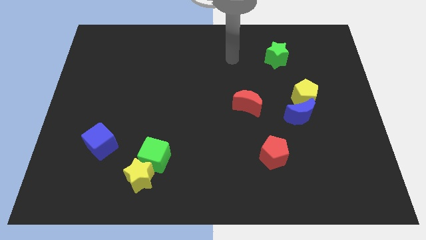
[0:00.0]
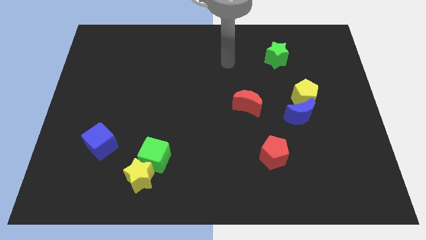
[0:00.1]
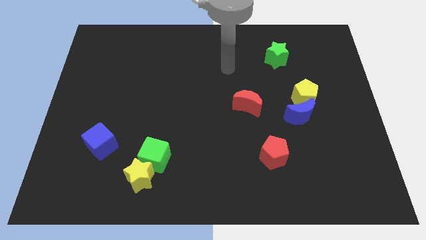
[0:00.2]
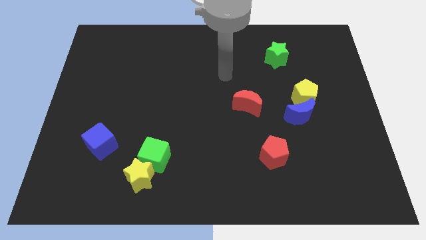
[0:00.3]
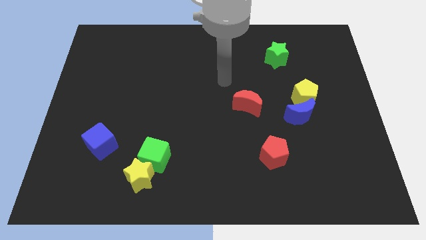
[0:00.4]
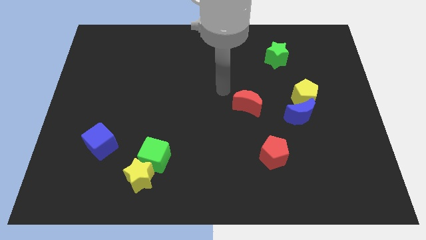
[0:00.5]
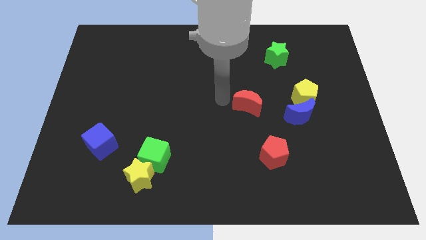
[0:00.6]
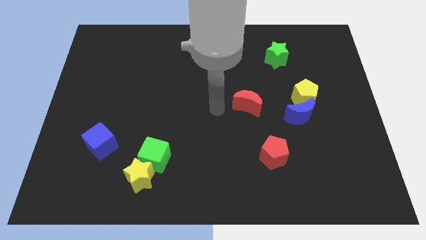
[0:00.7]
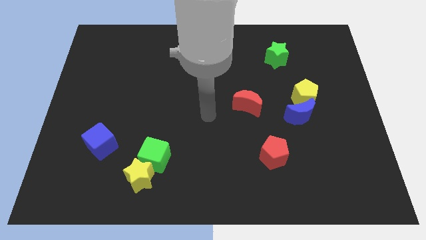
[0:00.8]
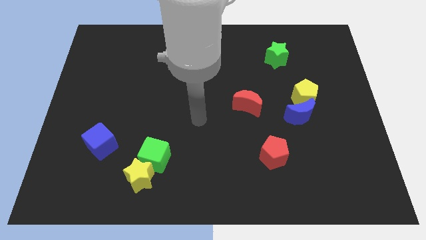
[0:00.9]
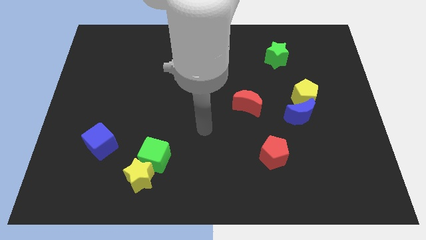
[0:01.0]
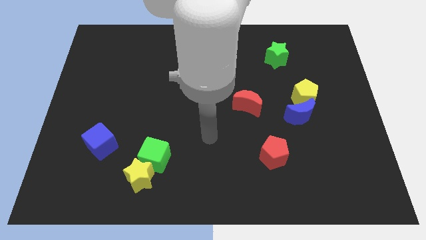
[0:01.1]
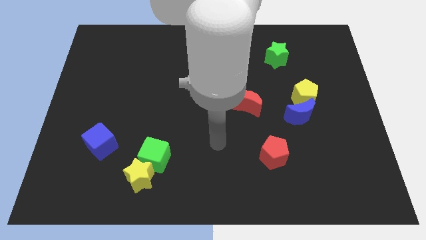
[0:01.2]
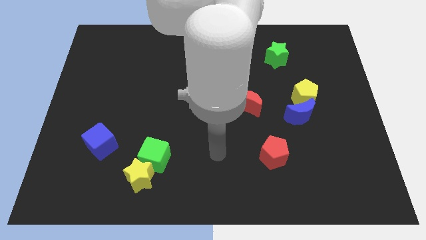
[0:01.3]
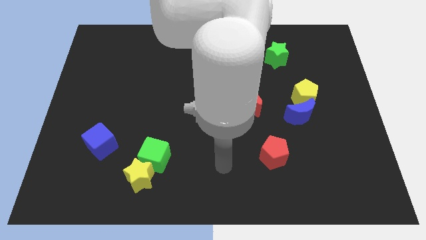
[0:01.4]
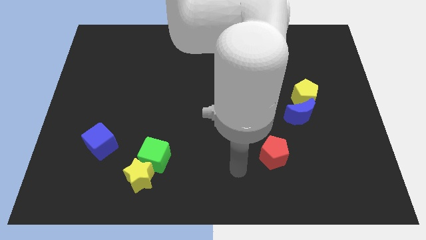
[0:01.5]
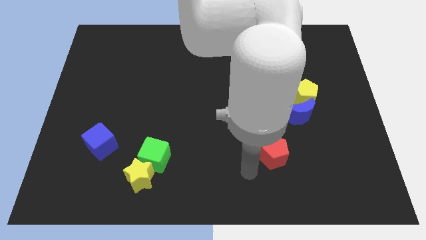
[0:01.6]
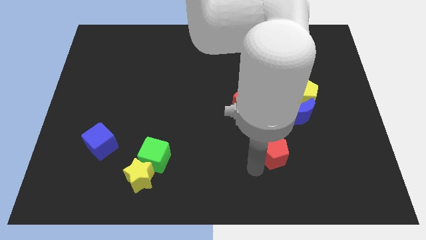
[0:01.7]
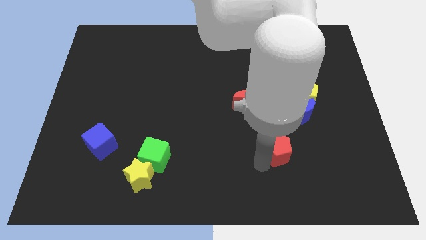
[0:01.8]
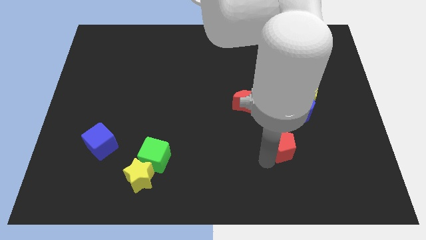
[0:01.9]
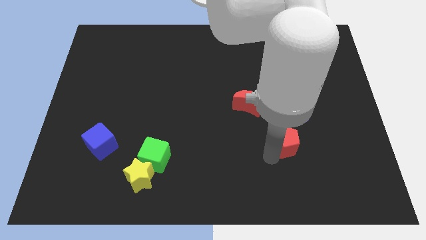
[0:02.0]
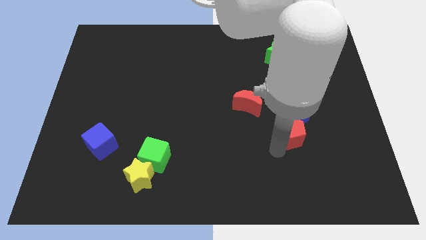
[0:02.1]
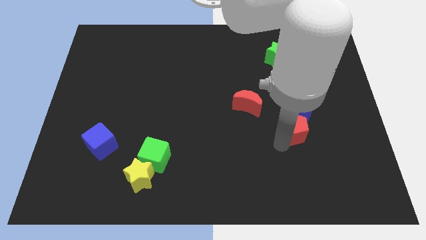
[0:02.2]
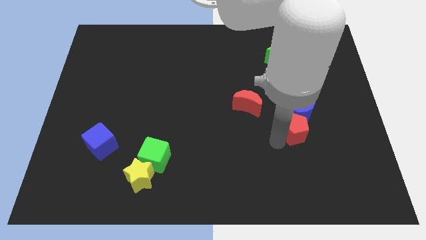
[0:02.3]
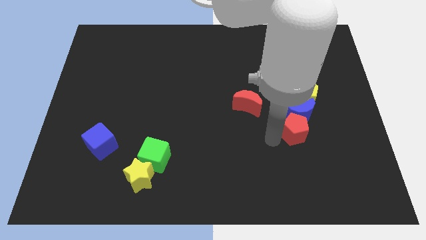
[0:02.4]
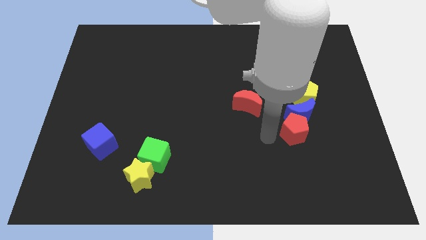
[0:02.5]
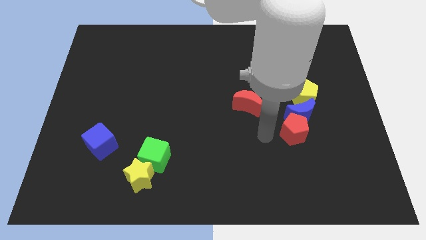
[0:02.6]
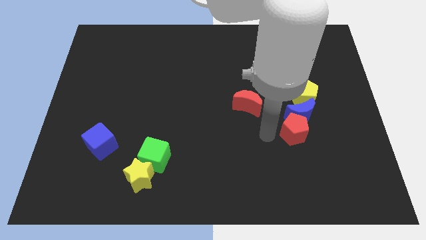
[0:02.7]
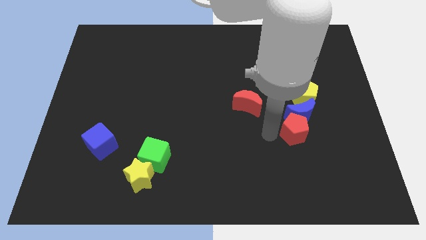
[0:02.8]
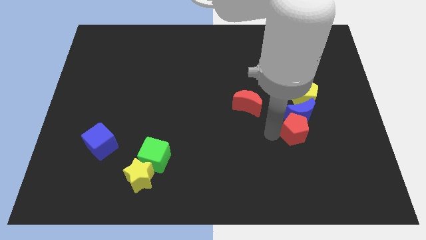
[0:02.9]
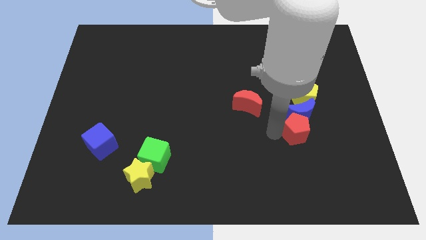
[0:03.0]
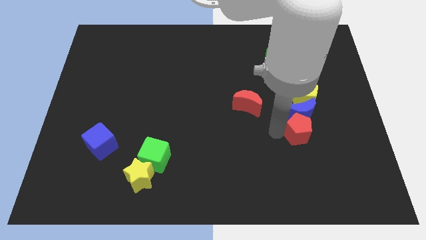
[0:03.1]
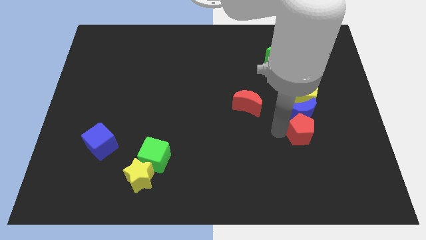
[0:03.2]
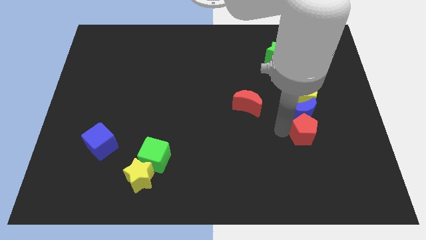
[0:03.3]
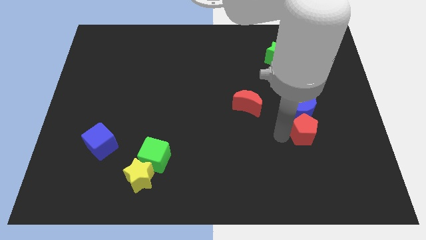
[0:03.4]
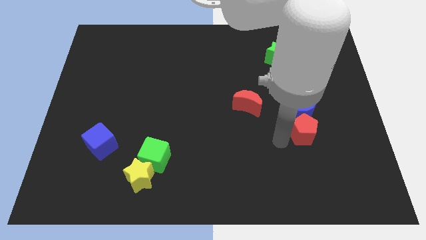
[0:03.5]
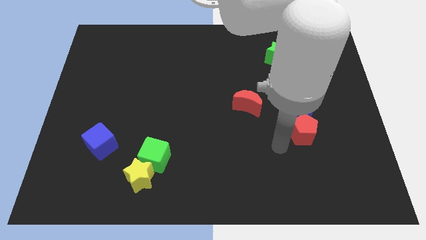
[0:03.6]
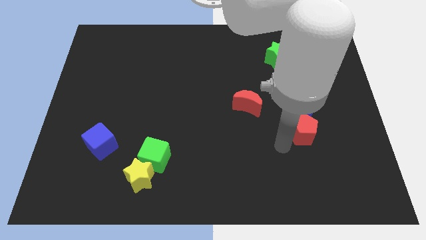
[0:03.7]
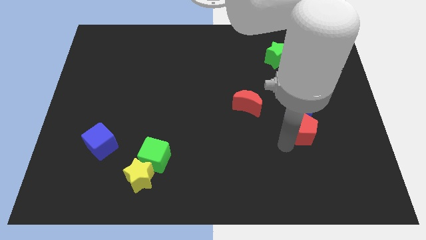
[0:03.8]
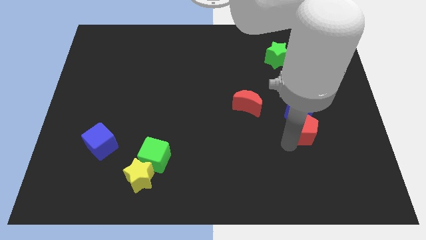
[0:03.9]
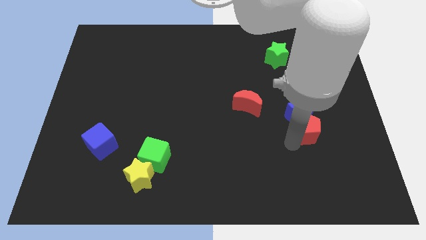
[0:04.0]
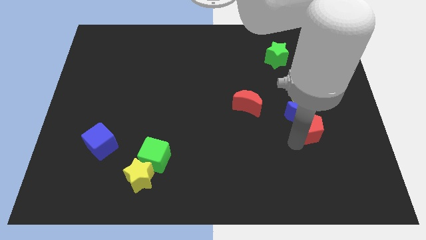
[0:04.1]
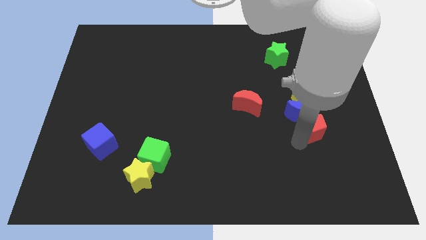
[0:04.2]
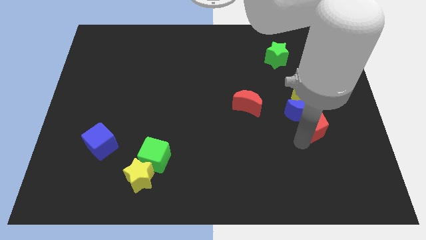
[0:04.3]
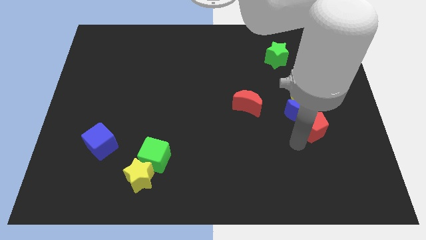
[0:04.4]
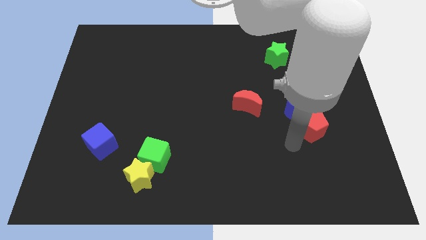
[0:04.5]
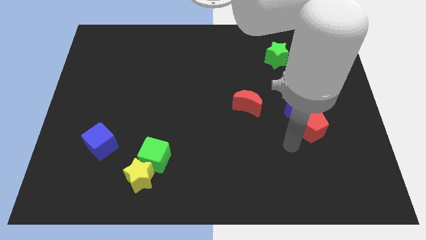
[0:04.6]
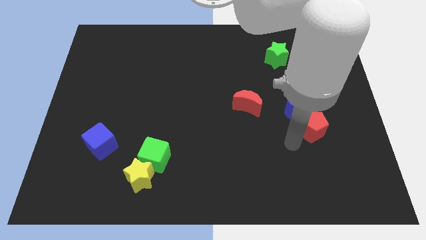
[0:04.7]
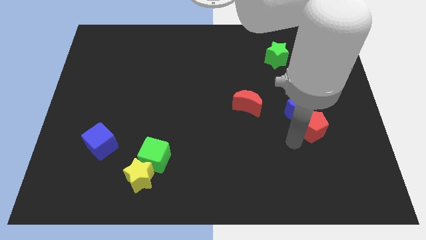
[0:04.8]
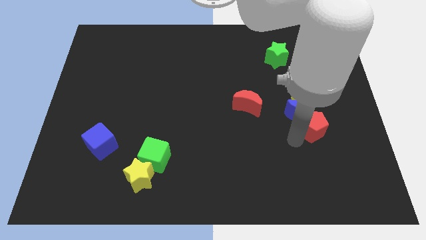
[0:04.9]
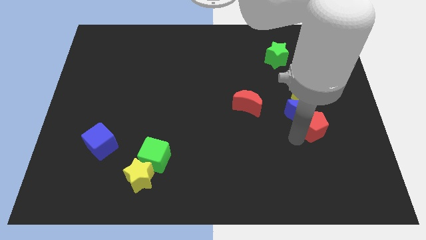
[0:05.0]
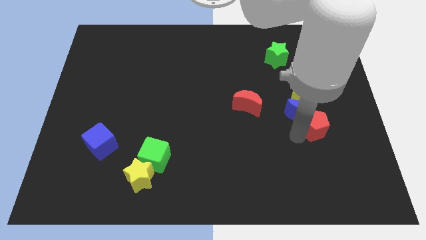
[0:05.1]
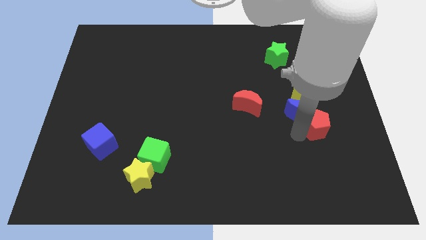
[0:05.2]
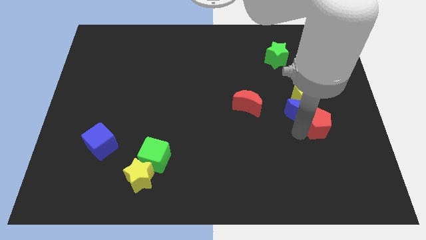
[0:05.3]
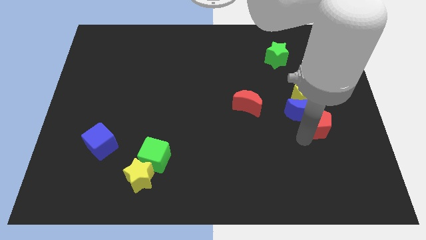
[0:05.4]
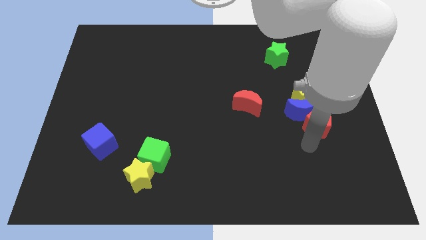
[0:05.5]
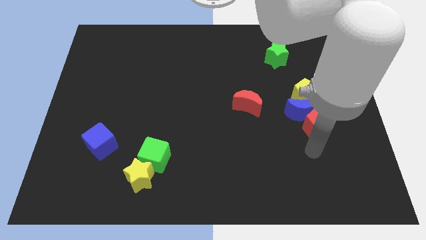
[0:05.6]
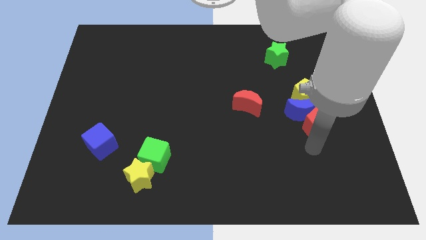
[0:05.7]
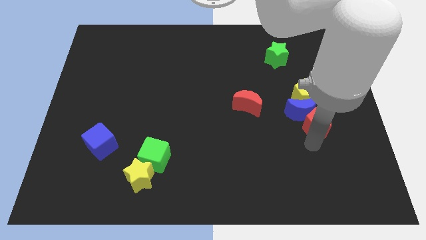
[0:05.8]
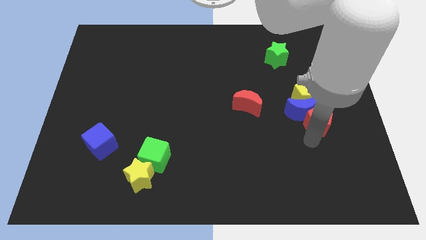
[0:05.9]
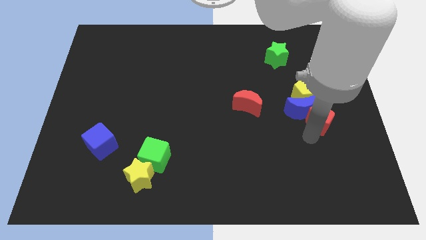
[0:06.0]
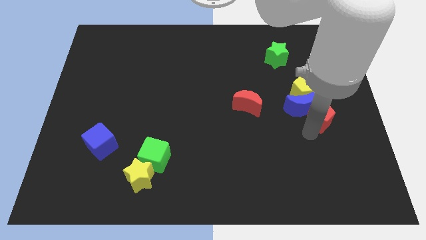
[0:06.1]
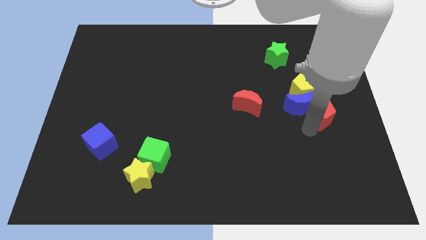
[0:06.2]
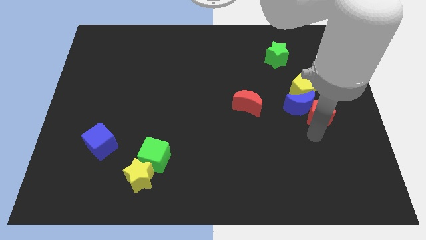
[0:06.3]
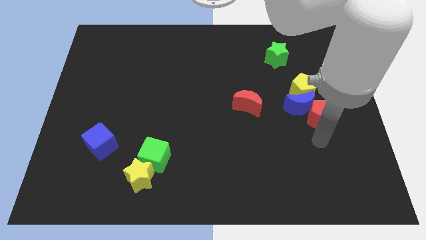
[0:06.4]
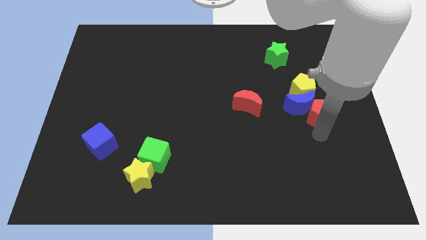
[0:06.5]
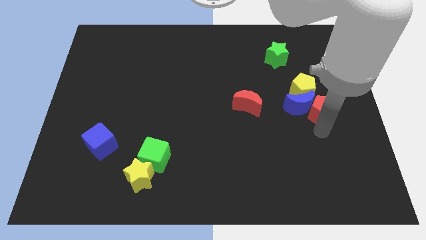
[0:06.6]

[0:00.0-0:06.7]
slide the red pentagon diagonally up and to the right of the blue moon
